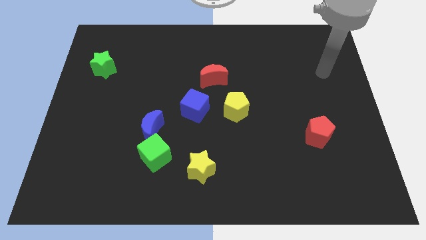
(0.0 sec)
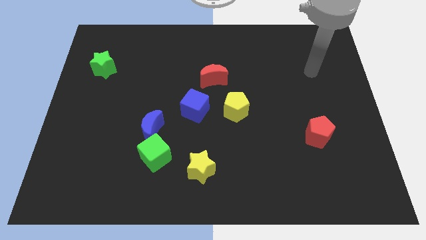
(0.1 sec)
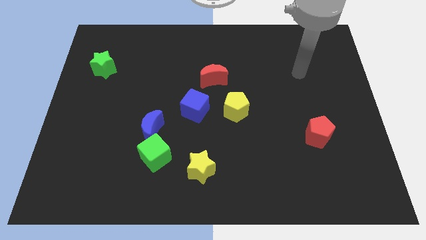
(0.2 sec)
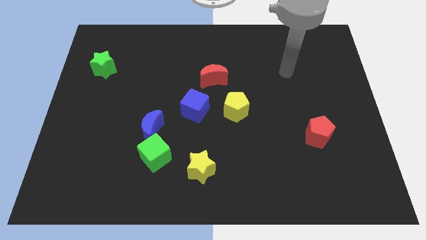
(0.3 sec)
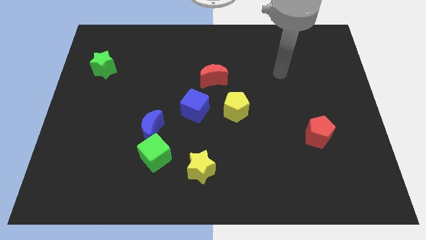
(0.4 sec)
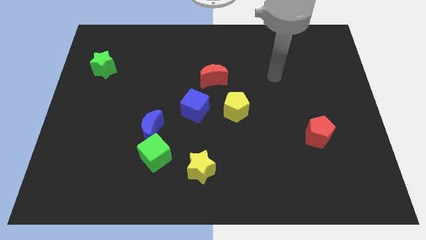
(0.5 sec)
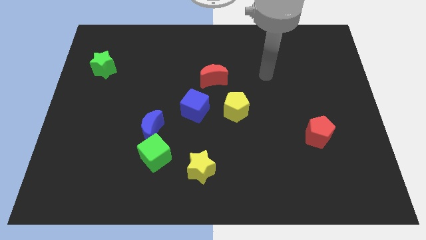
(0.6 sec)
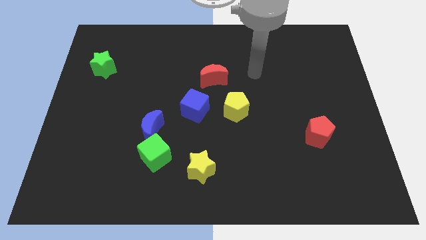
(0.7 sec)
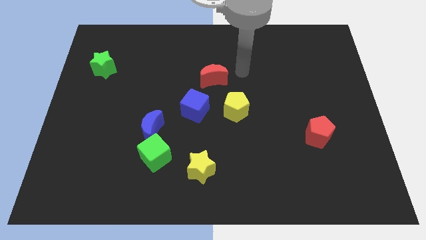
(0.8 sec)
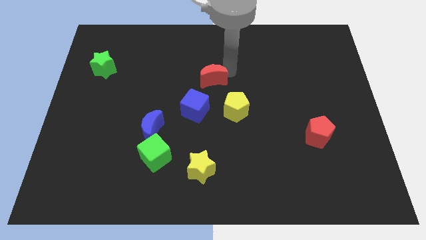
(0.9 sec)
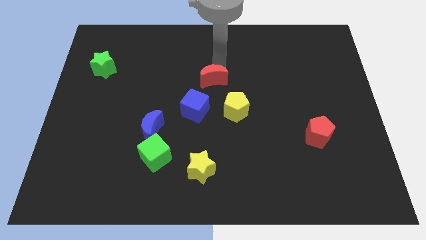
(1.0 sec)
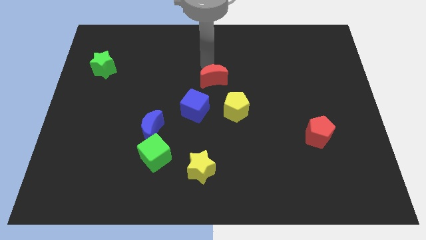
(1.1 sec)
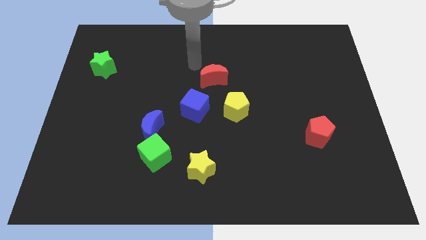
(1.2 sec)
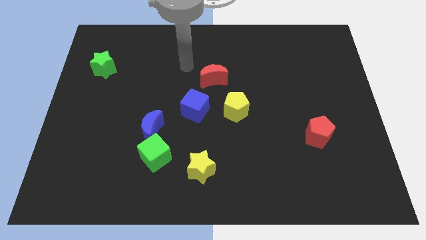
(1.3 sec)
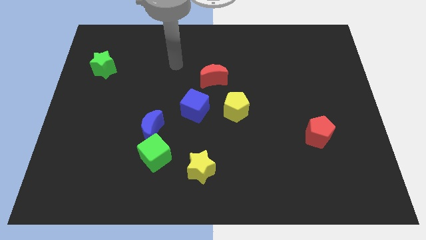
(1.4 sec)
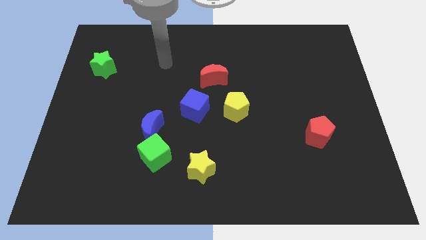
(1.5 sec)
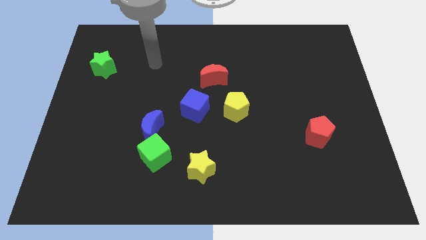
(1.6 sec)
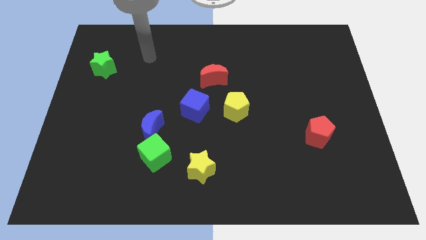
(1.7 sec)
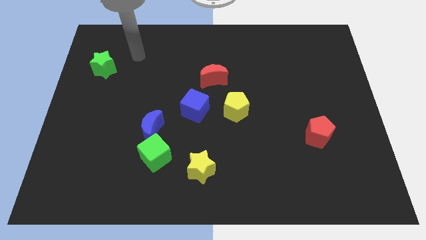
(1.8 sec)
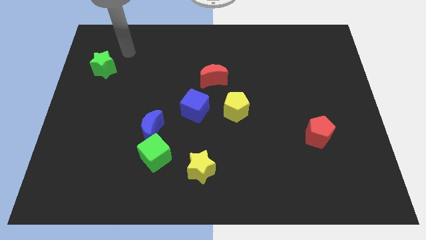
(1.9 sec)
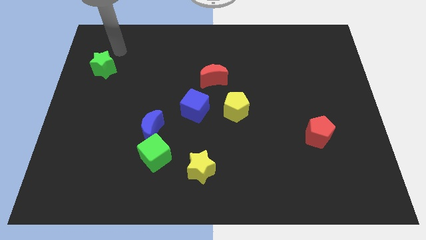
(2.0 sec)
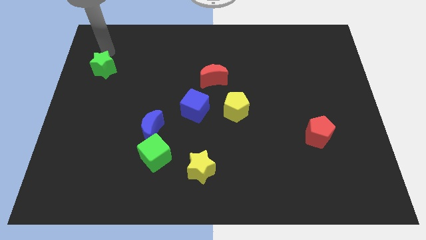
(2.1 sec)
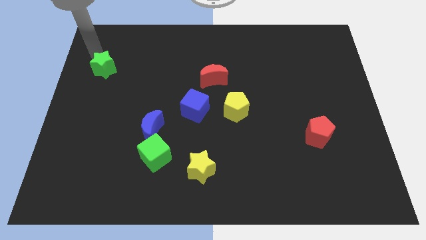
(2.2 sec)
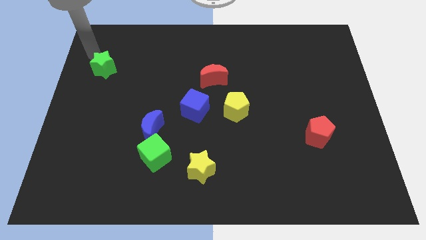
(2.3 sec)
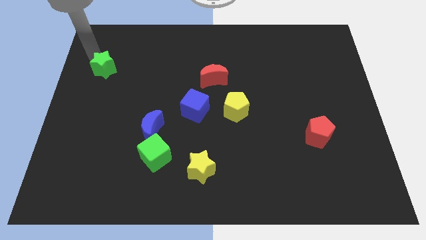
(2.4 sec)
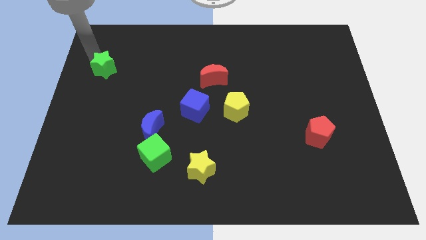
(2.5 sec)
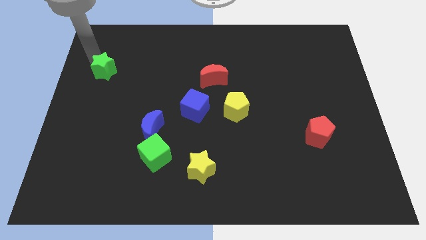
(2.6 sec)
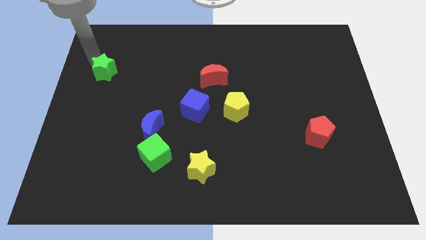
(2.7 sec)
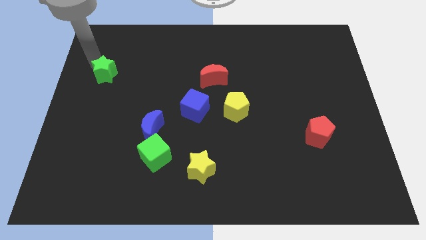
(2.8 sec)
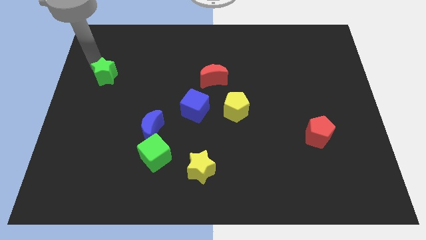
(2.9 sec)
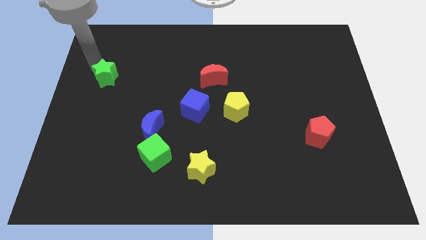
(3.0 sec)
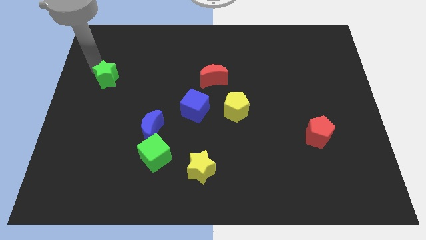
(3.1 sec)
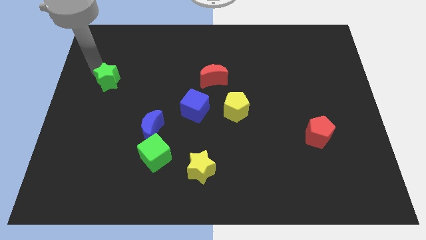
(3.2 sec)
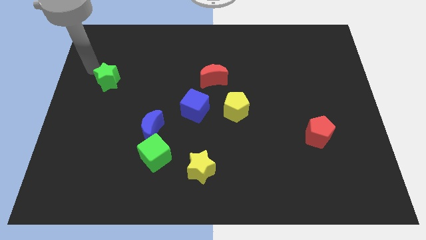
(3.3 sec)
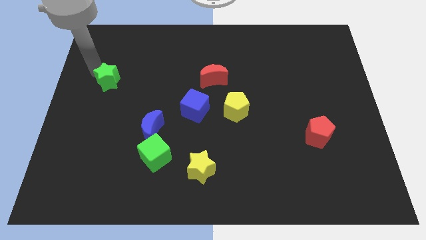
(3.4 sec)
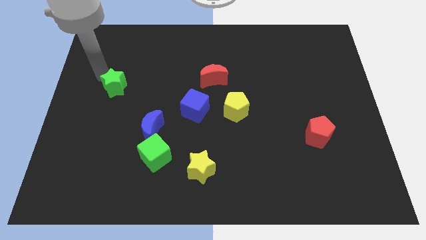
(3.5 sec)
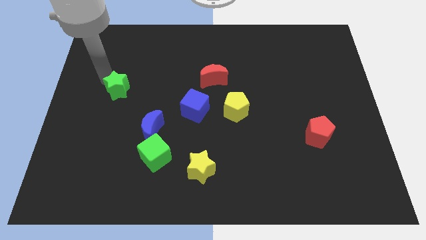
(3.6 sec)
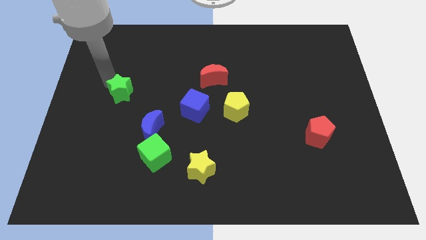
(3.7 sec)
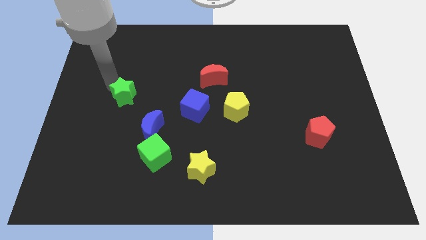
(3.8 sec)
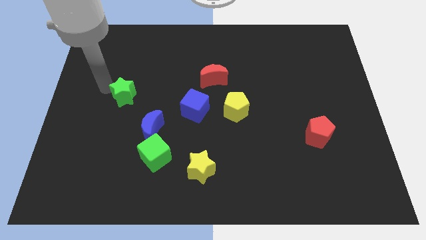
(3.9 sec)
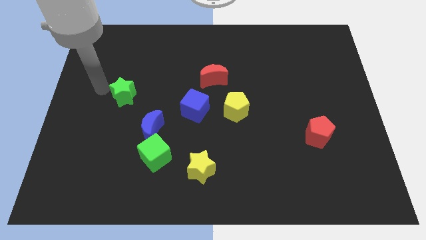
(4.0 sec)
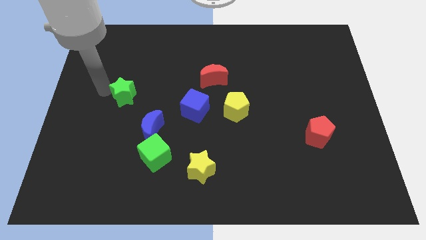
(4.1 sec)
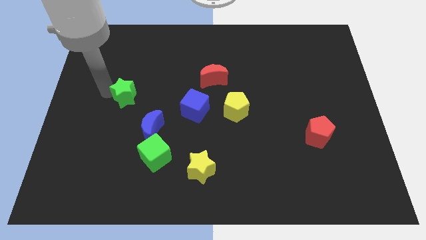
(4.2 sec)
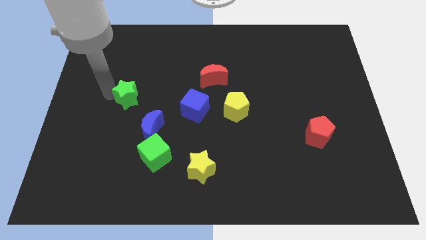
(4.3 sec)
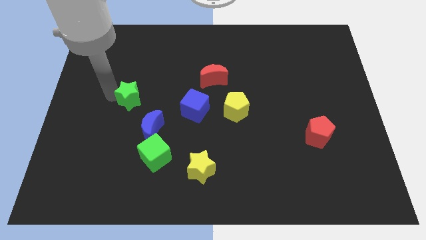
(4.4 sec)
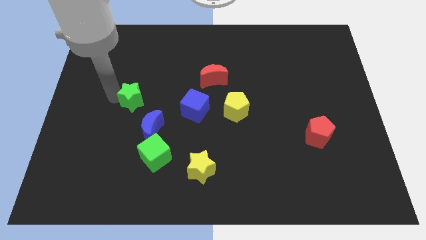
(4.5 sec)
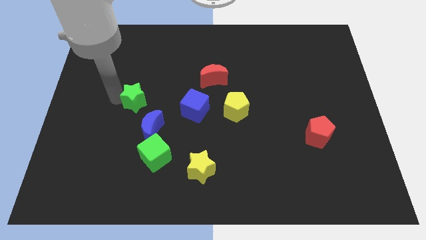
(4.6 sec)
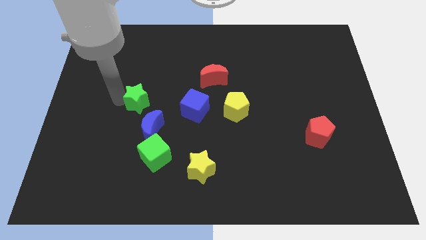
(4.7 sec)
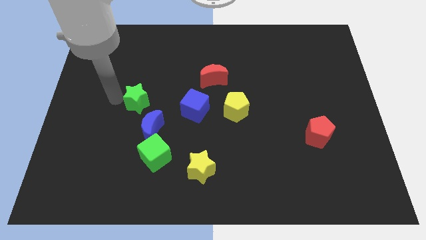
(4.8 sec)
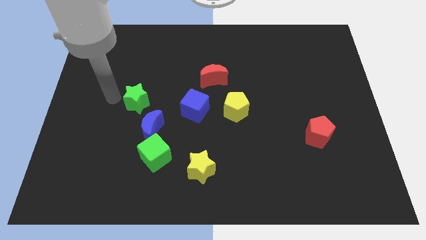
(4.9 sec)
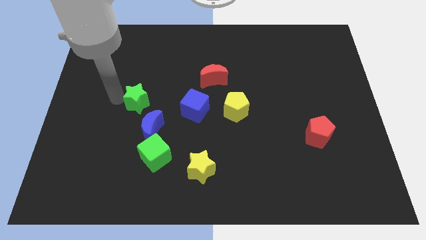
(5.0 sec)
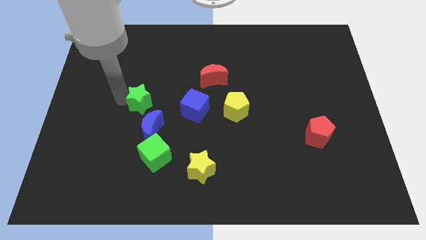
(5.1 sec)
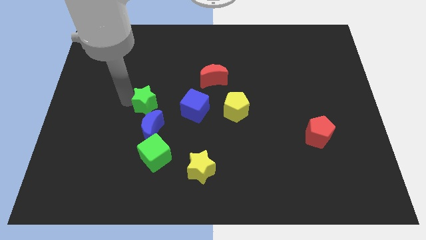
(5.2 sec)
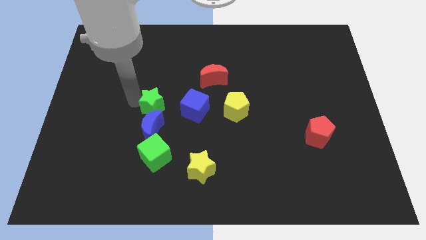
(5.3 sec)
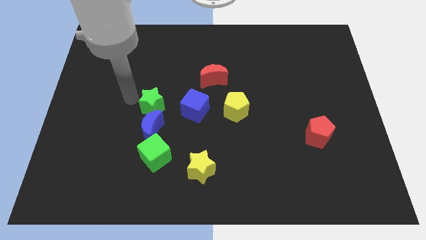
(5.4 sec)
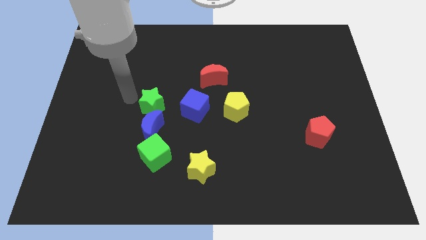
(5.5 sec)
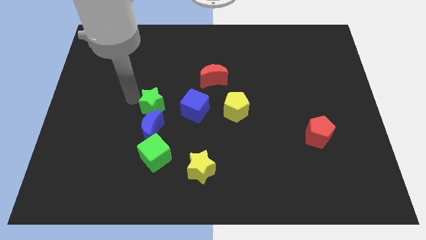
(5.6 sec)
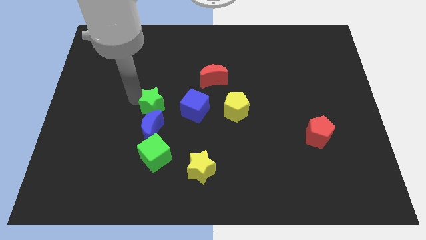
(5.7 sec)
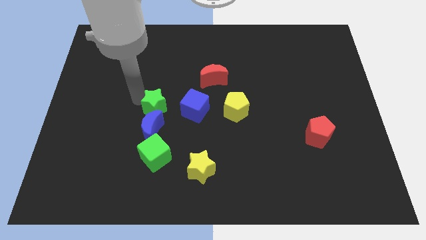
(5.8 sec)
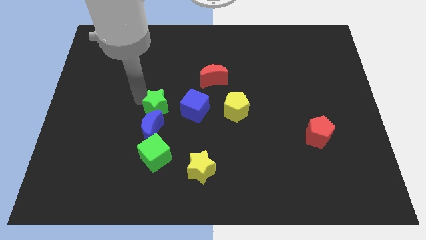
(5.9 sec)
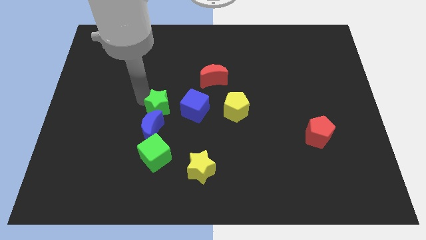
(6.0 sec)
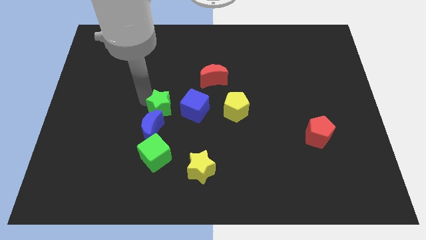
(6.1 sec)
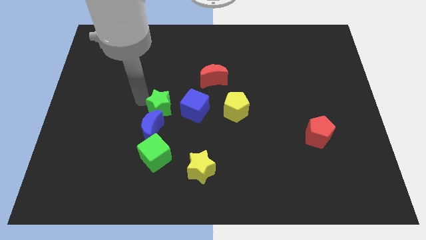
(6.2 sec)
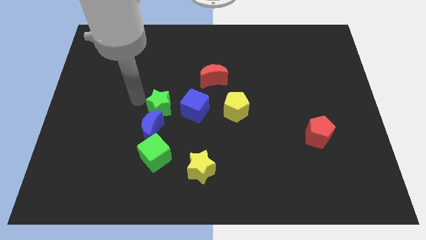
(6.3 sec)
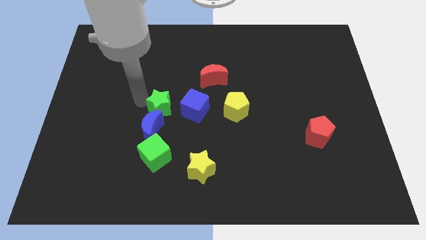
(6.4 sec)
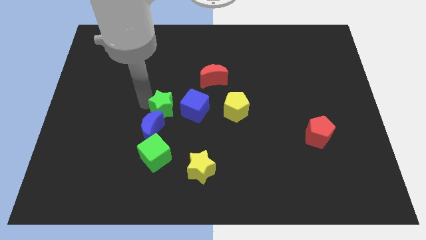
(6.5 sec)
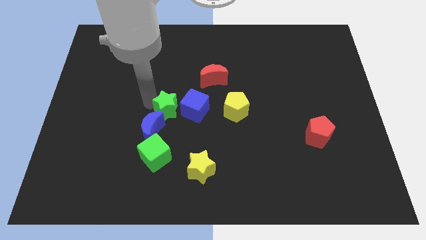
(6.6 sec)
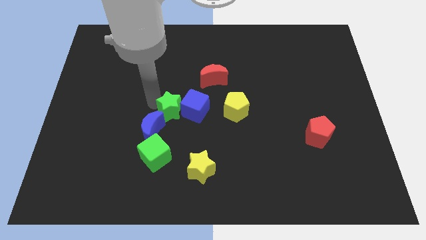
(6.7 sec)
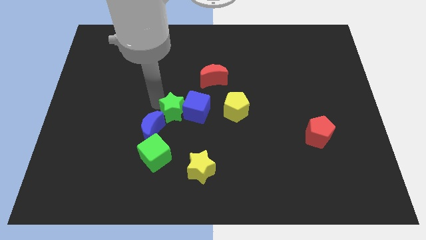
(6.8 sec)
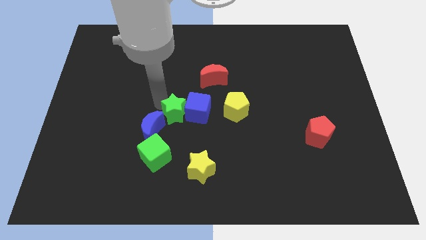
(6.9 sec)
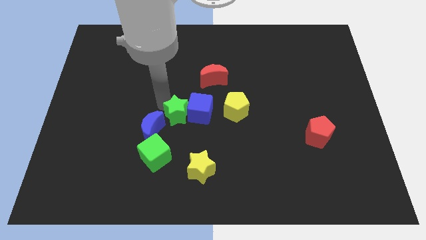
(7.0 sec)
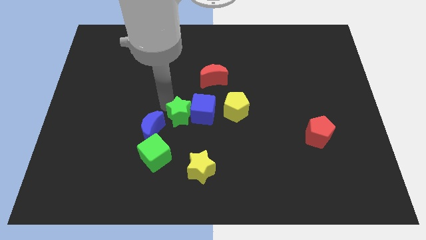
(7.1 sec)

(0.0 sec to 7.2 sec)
push the green star diagonally up and to the right of the green cube

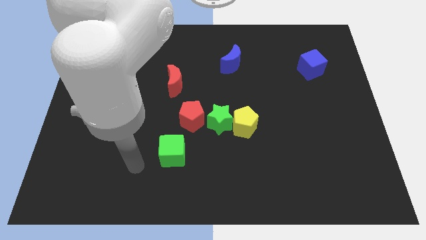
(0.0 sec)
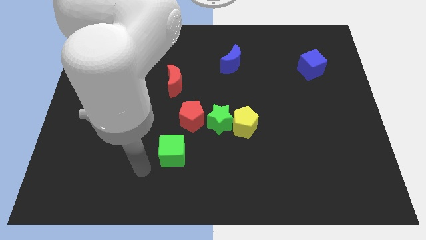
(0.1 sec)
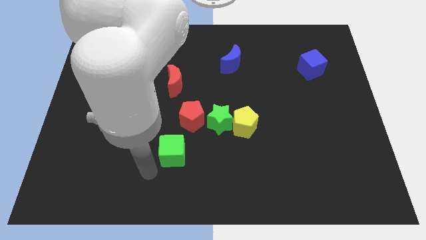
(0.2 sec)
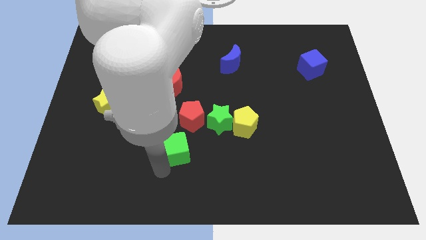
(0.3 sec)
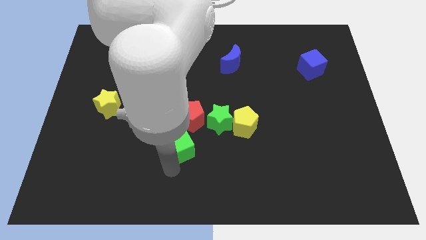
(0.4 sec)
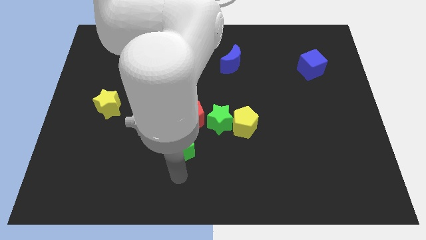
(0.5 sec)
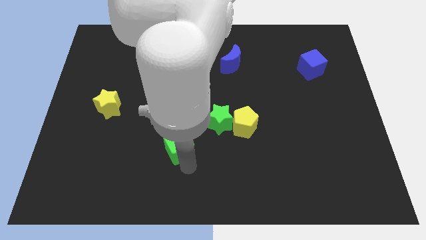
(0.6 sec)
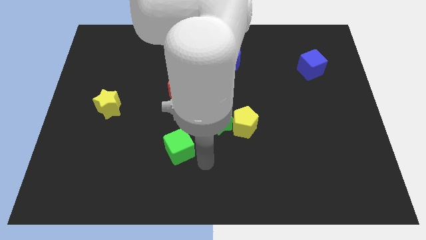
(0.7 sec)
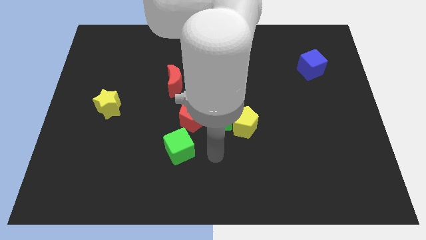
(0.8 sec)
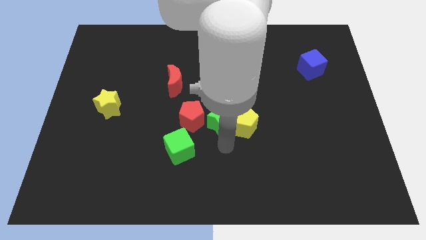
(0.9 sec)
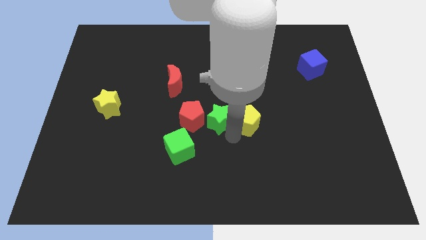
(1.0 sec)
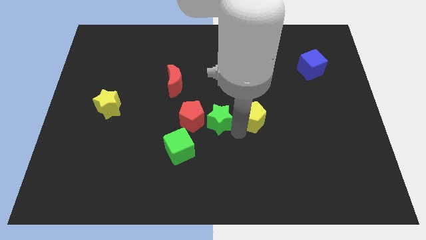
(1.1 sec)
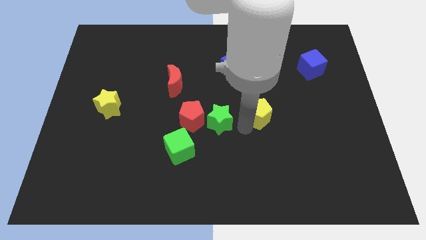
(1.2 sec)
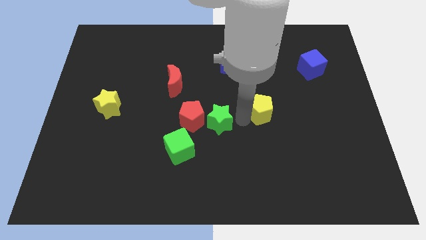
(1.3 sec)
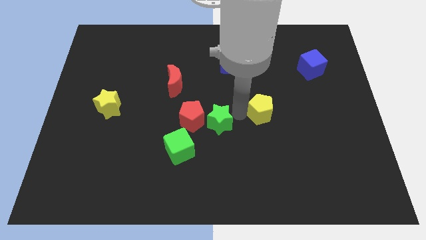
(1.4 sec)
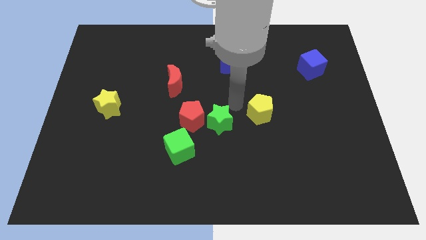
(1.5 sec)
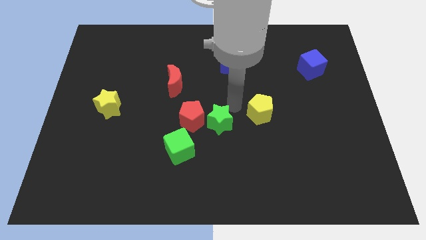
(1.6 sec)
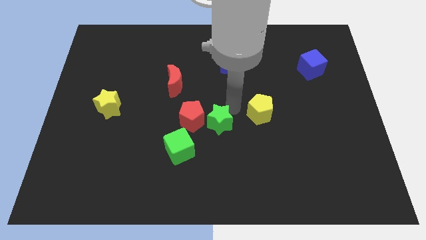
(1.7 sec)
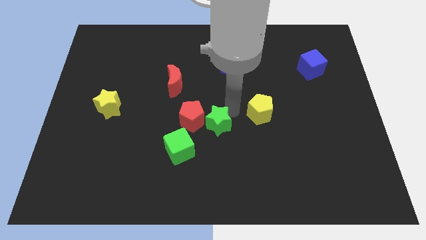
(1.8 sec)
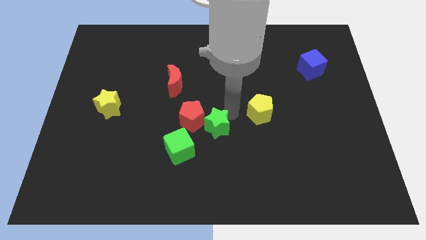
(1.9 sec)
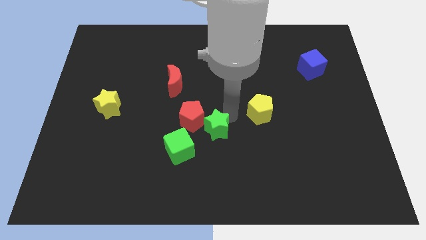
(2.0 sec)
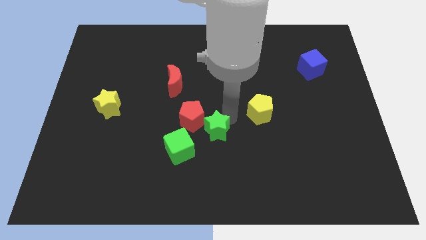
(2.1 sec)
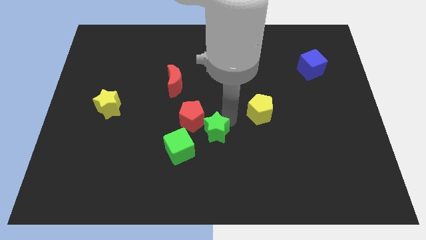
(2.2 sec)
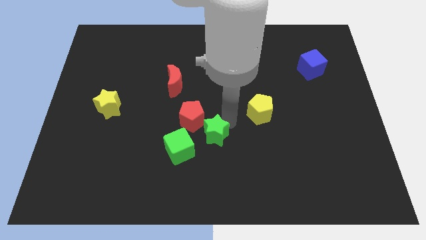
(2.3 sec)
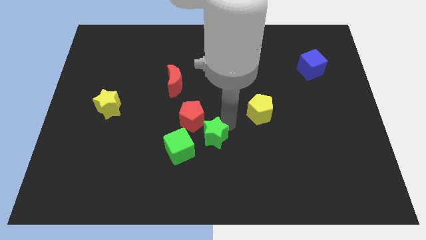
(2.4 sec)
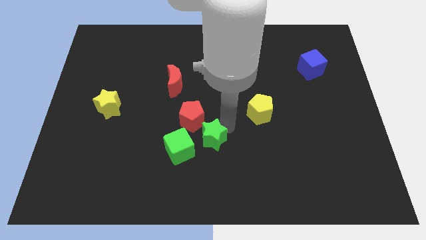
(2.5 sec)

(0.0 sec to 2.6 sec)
push the green star below the red pentagon
